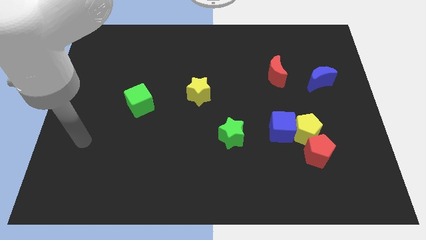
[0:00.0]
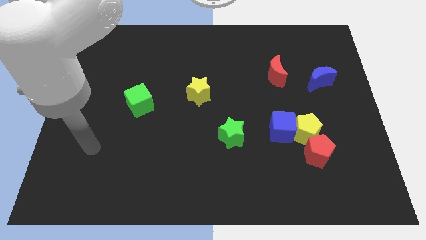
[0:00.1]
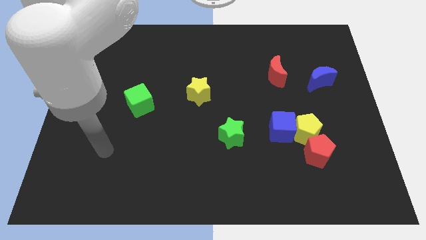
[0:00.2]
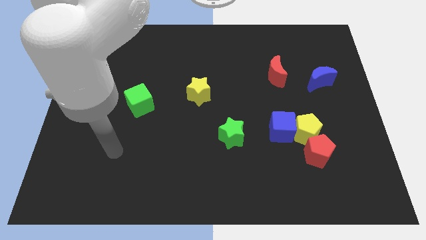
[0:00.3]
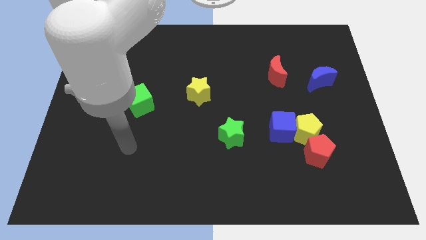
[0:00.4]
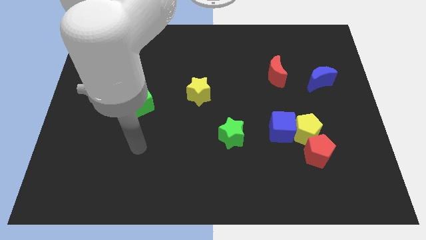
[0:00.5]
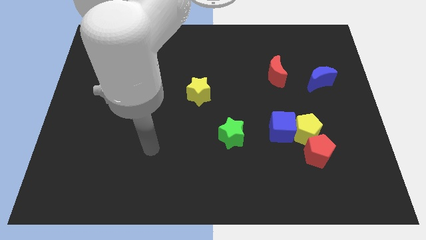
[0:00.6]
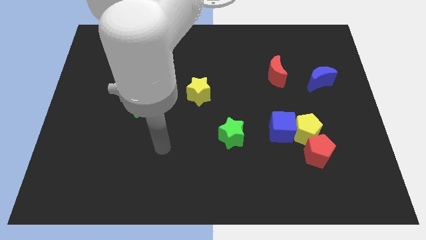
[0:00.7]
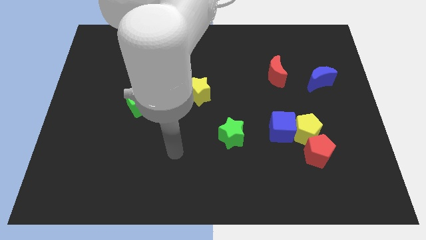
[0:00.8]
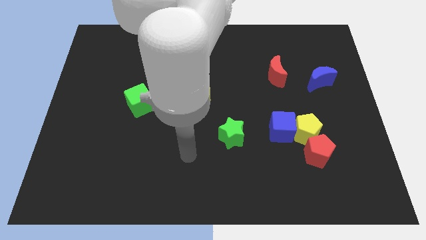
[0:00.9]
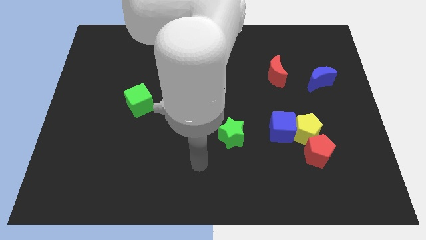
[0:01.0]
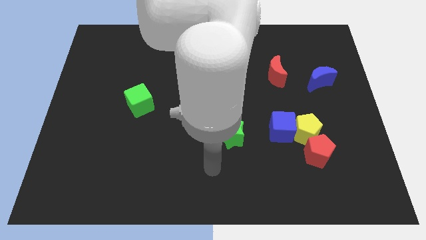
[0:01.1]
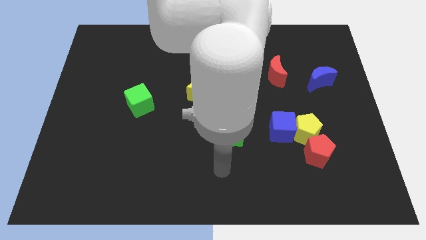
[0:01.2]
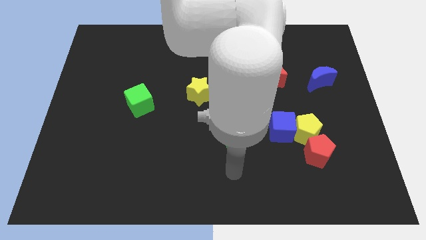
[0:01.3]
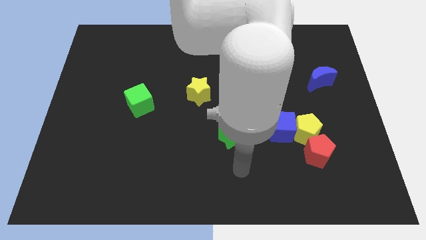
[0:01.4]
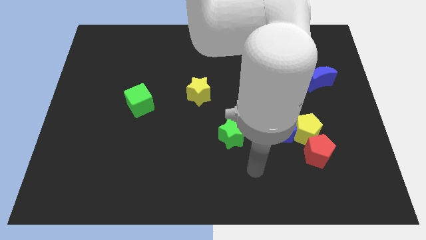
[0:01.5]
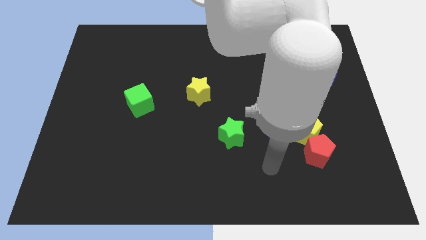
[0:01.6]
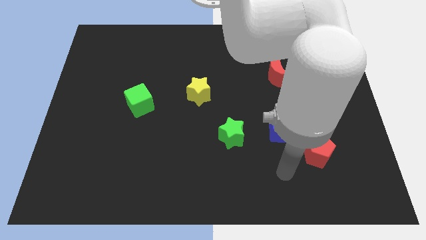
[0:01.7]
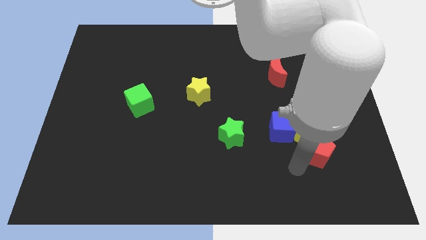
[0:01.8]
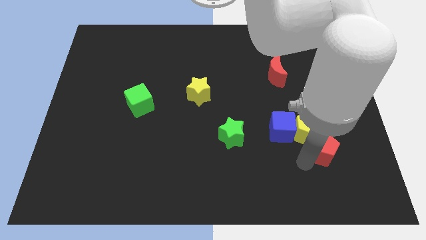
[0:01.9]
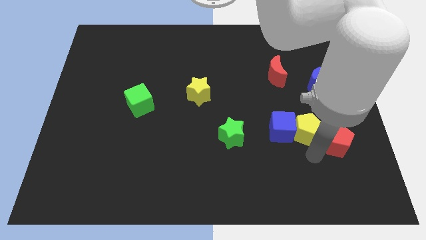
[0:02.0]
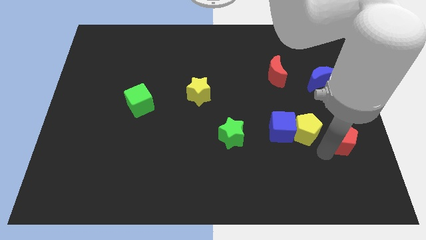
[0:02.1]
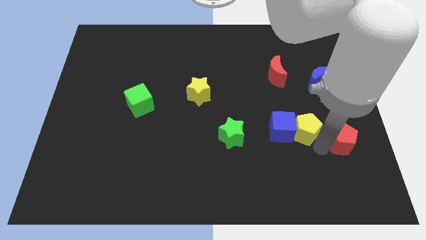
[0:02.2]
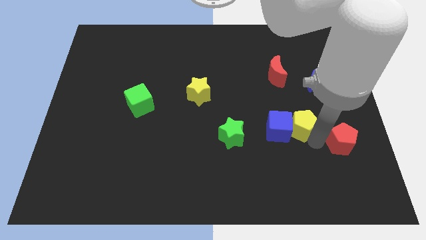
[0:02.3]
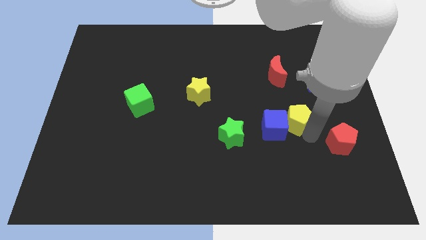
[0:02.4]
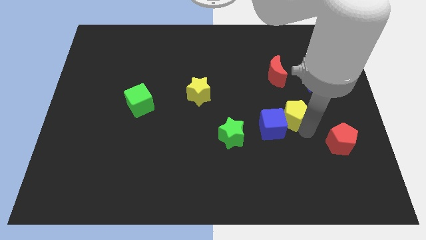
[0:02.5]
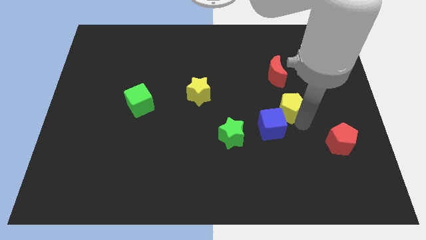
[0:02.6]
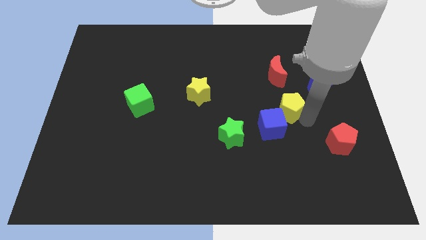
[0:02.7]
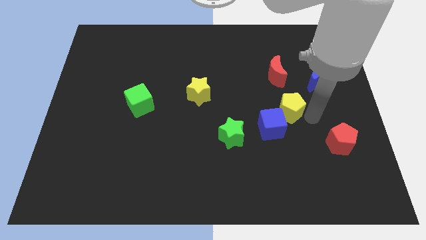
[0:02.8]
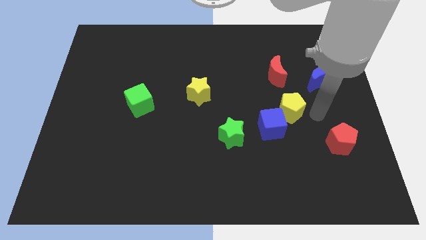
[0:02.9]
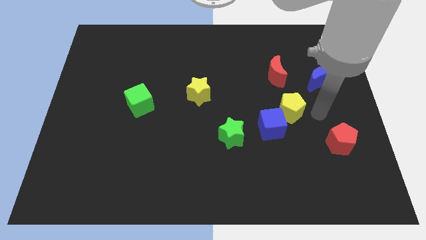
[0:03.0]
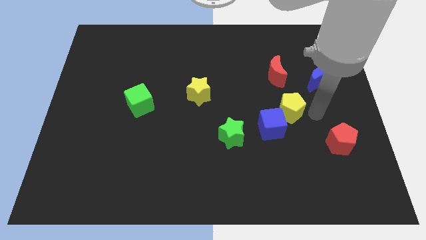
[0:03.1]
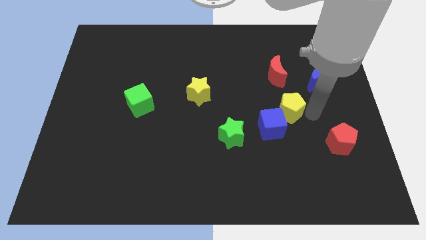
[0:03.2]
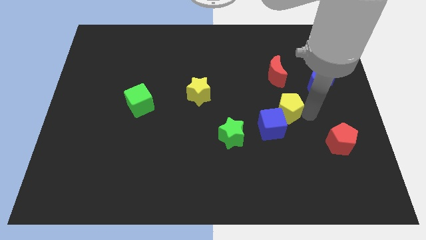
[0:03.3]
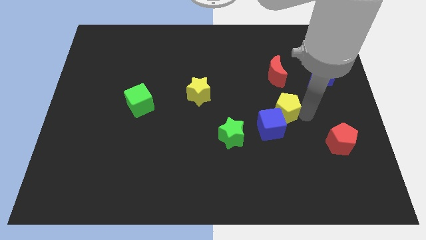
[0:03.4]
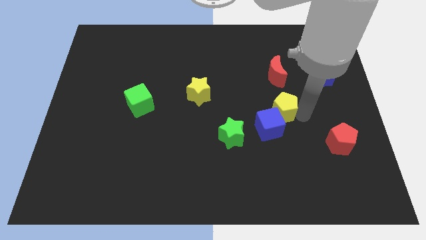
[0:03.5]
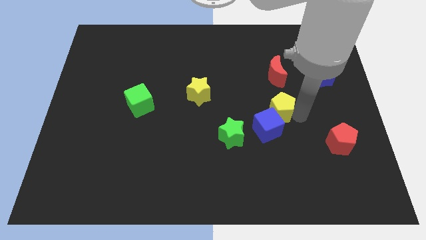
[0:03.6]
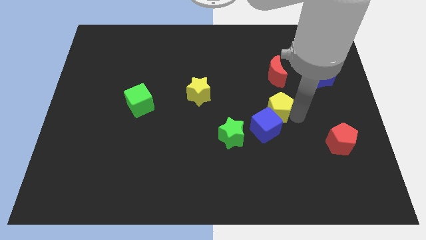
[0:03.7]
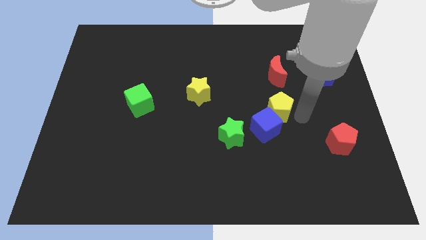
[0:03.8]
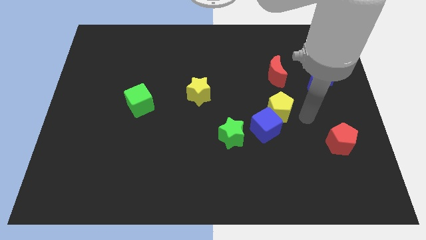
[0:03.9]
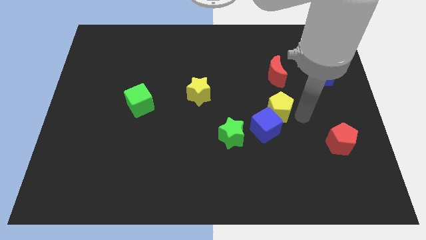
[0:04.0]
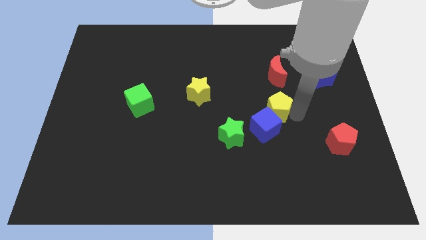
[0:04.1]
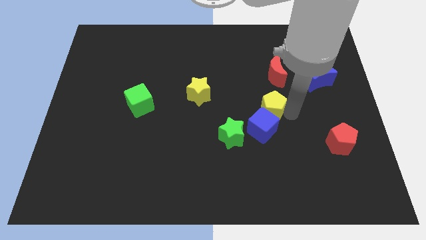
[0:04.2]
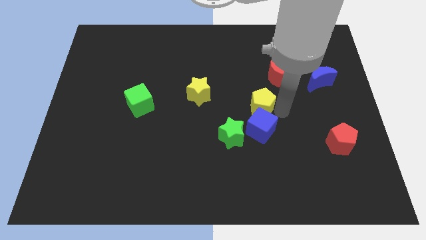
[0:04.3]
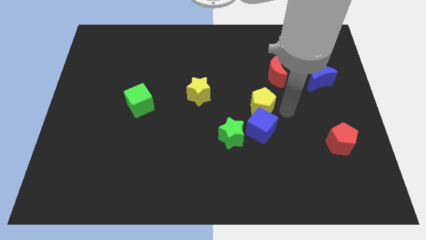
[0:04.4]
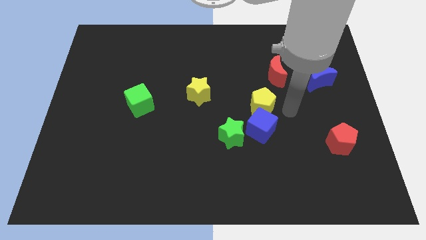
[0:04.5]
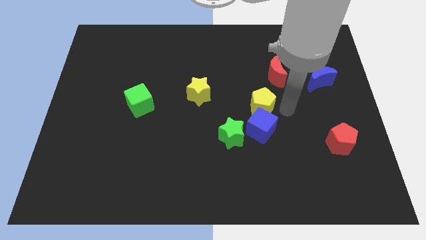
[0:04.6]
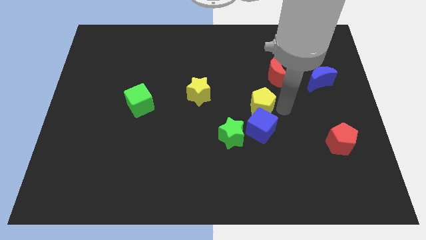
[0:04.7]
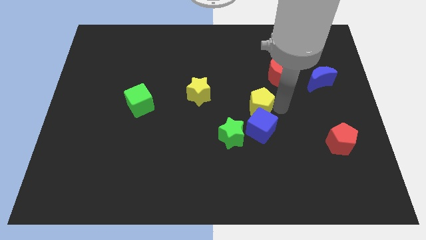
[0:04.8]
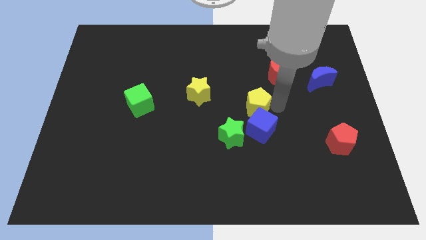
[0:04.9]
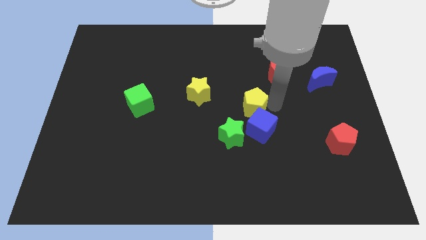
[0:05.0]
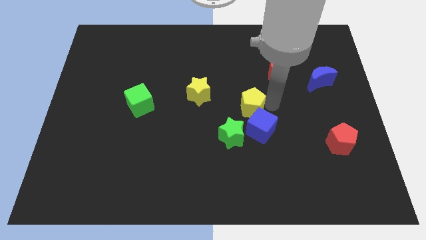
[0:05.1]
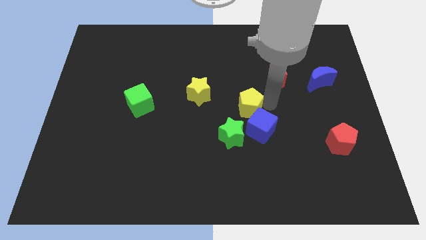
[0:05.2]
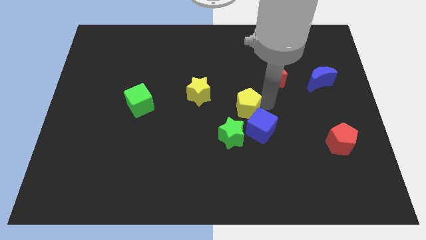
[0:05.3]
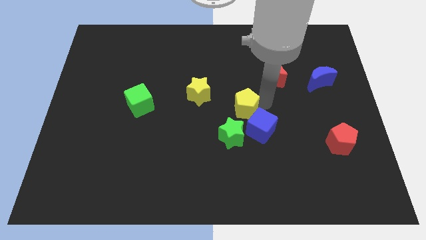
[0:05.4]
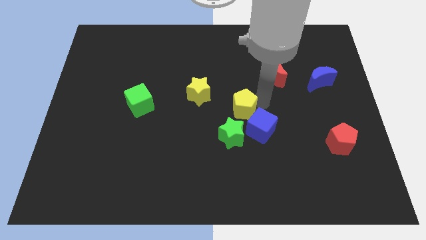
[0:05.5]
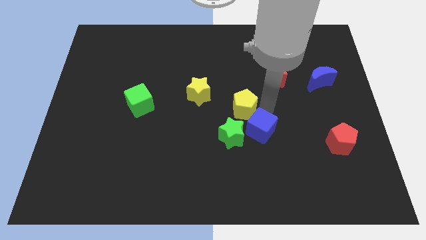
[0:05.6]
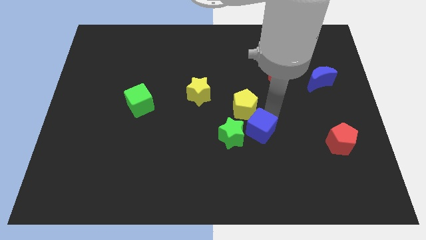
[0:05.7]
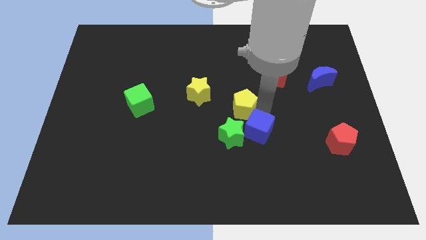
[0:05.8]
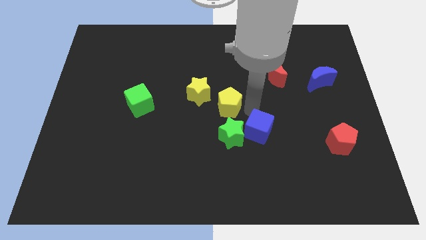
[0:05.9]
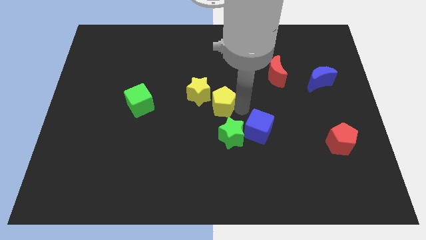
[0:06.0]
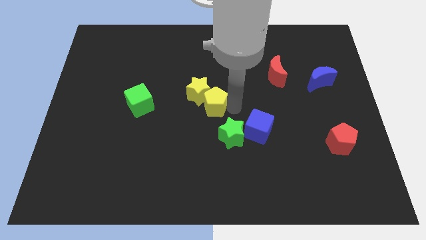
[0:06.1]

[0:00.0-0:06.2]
slide the yellow pentagon towards the yellow star

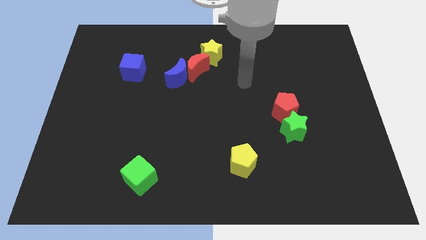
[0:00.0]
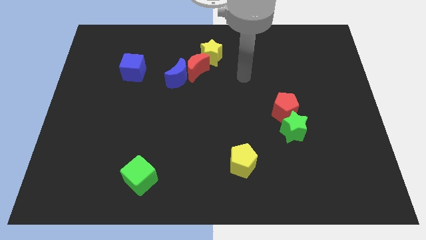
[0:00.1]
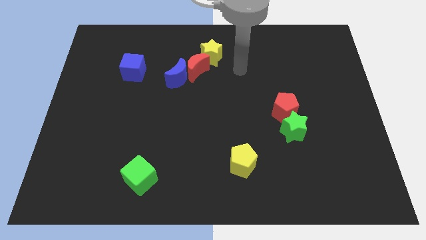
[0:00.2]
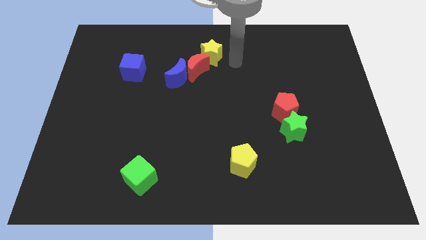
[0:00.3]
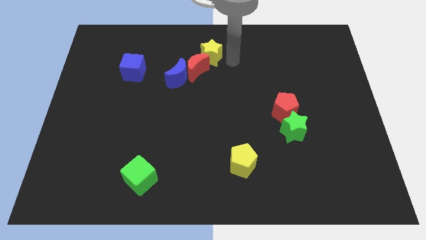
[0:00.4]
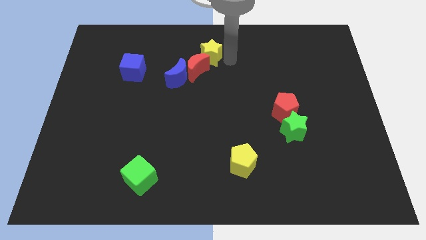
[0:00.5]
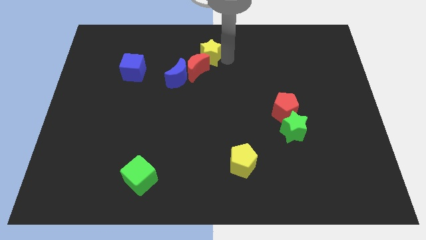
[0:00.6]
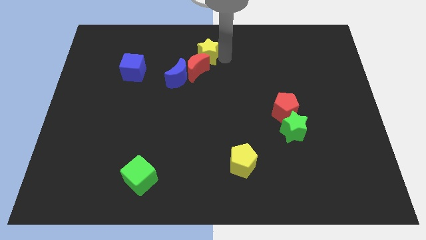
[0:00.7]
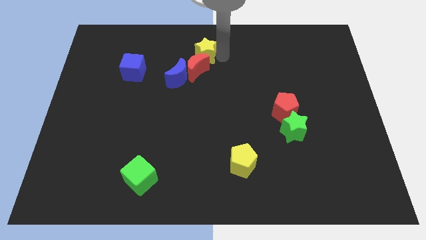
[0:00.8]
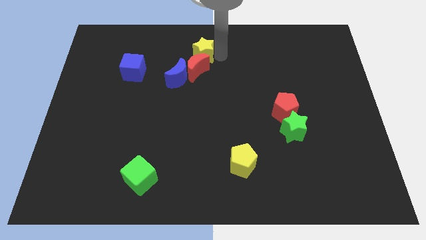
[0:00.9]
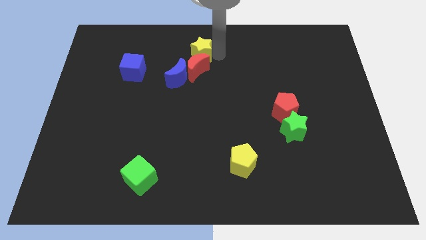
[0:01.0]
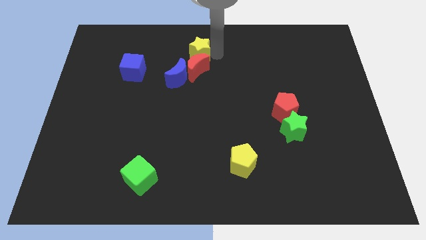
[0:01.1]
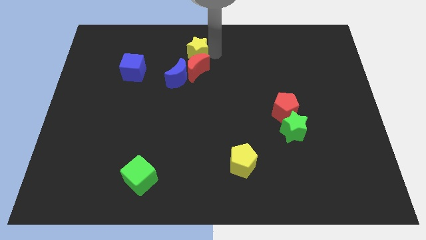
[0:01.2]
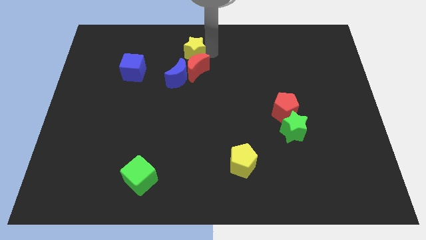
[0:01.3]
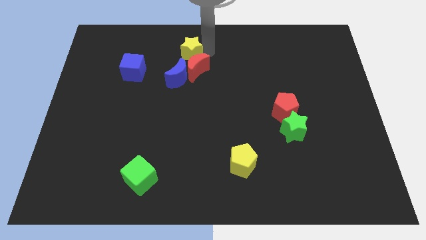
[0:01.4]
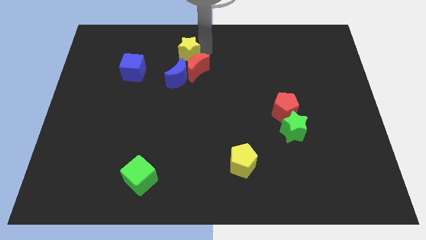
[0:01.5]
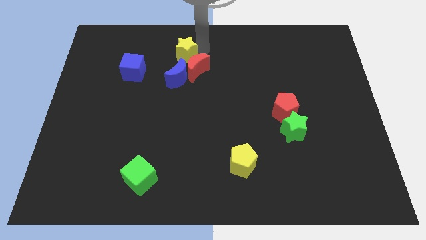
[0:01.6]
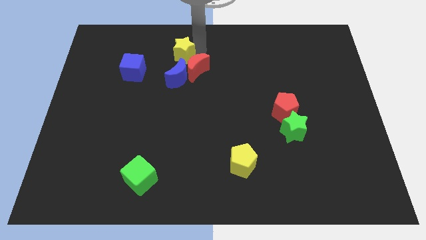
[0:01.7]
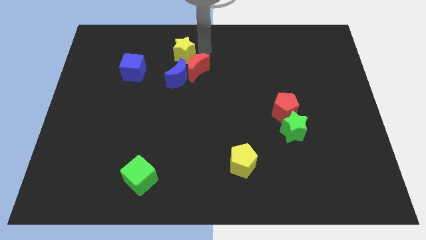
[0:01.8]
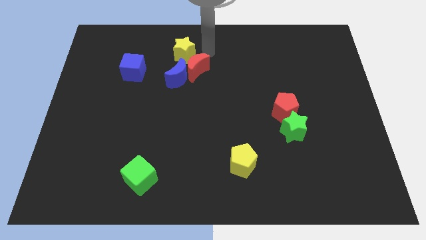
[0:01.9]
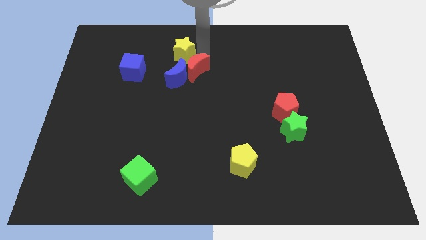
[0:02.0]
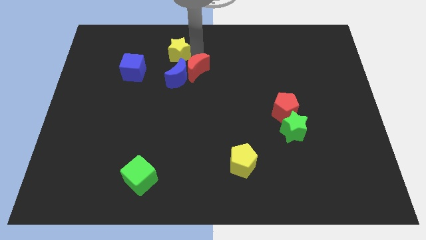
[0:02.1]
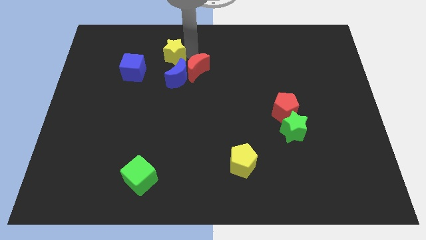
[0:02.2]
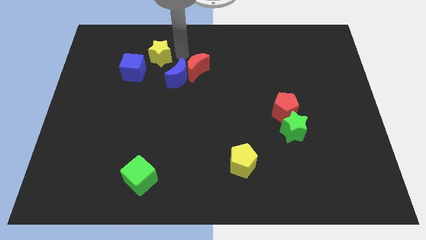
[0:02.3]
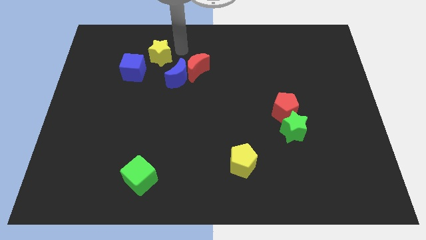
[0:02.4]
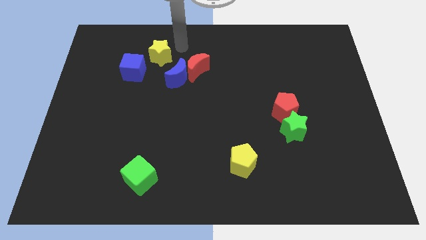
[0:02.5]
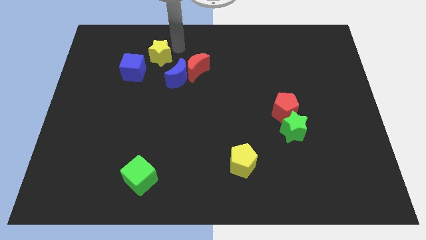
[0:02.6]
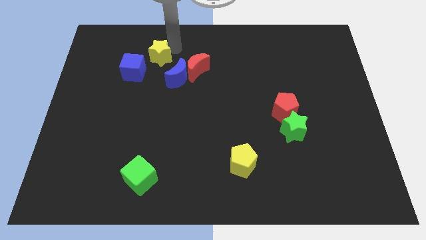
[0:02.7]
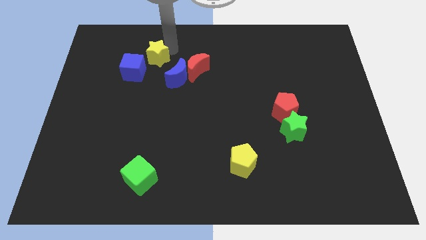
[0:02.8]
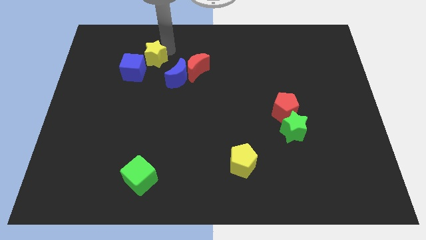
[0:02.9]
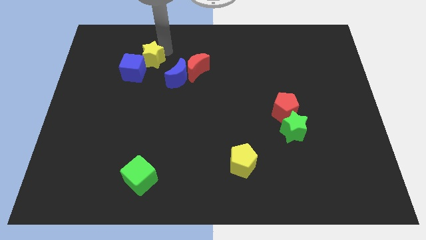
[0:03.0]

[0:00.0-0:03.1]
push the yellow star next to the blue cube
